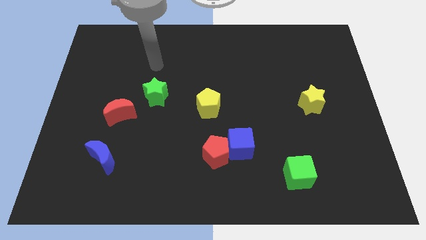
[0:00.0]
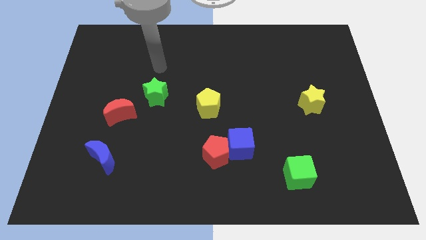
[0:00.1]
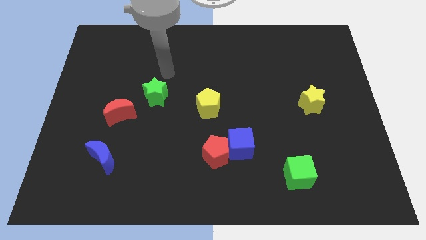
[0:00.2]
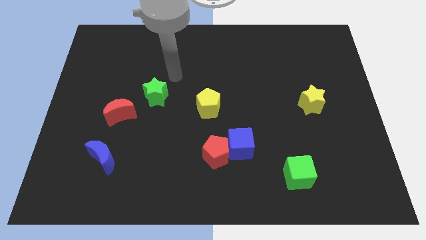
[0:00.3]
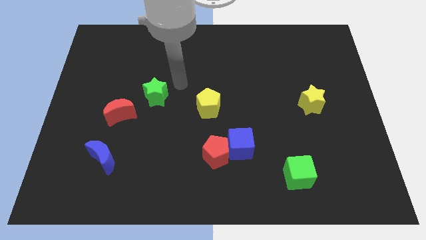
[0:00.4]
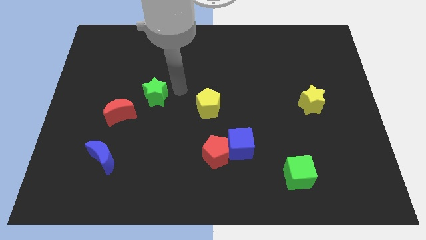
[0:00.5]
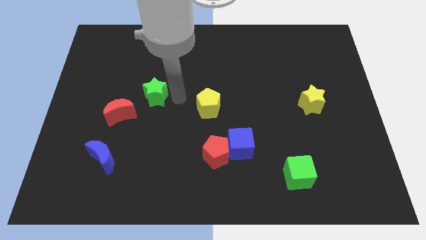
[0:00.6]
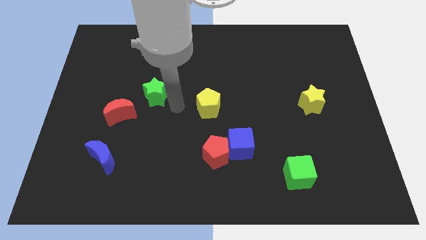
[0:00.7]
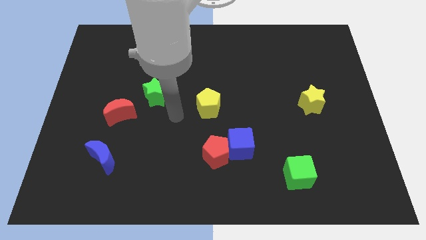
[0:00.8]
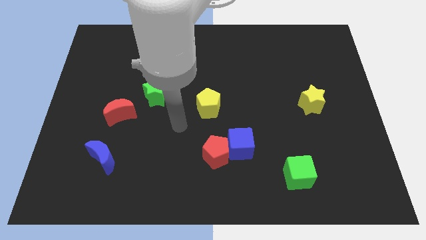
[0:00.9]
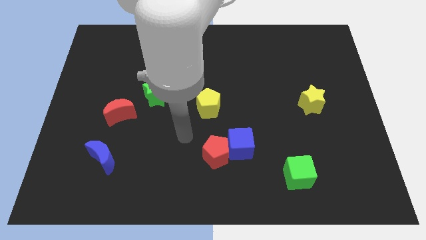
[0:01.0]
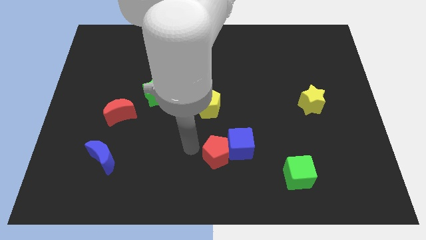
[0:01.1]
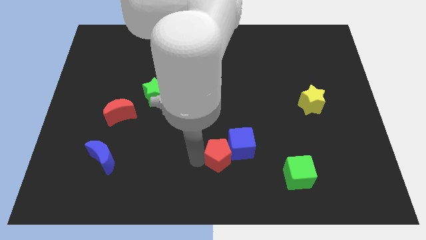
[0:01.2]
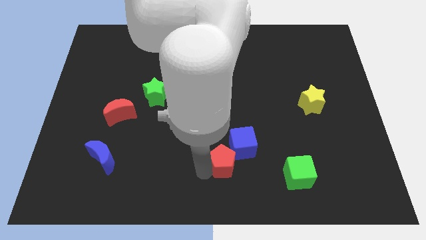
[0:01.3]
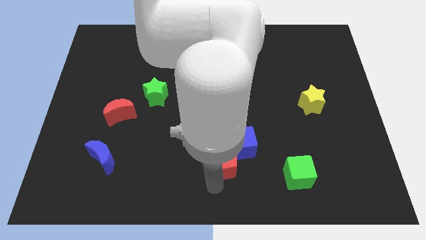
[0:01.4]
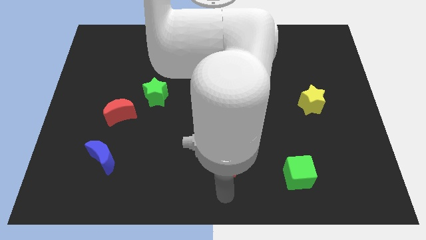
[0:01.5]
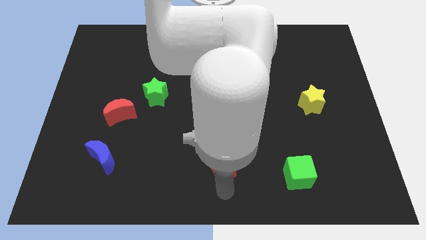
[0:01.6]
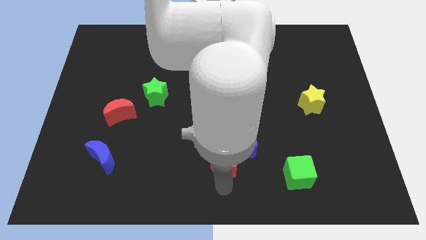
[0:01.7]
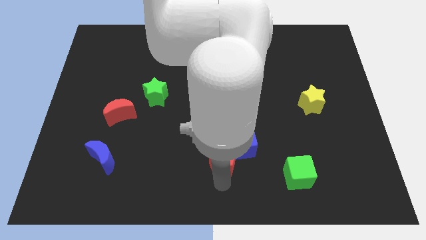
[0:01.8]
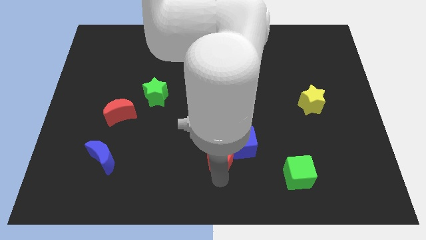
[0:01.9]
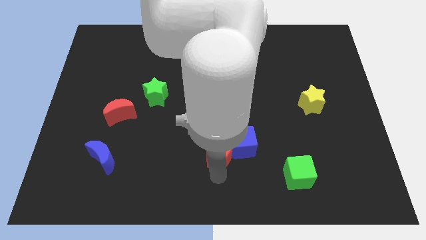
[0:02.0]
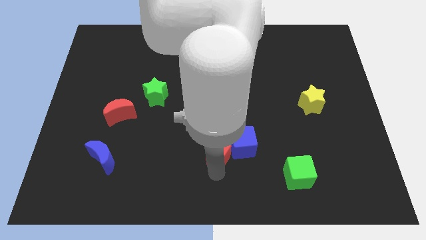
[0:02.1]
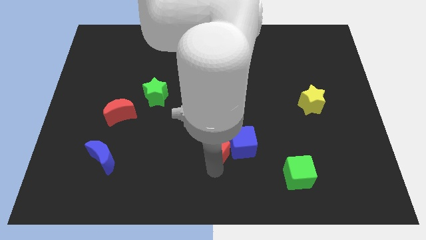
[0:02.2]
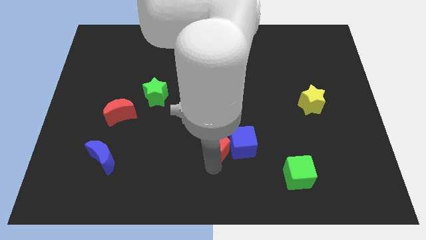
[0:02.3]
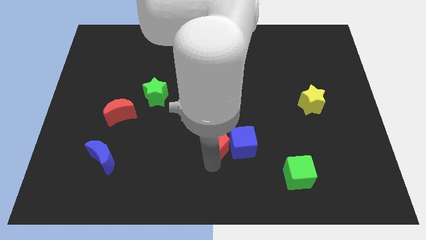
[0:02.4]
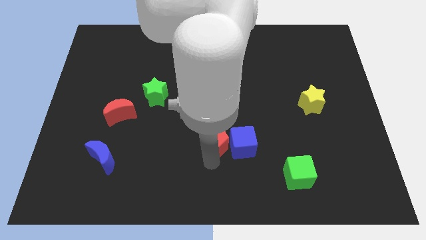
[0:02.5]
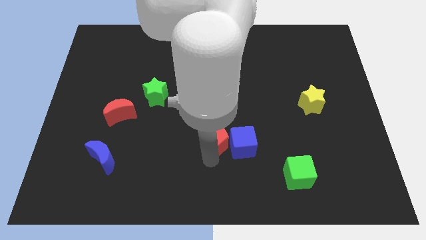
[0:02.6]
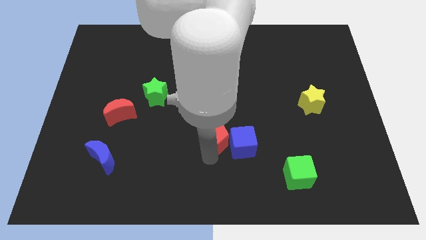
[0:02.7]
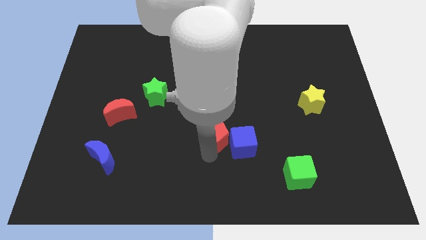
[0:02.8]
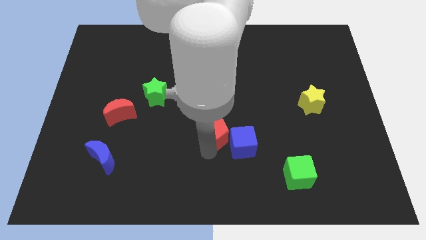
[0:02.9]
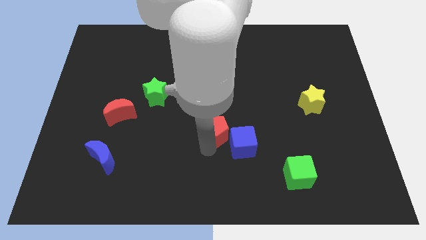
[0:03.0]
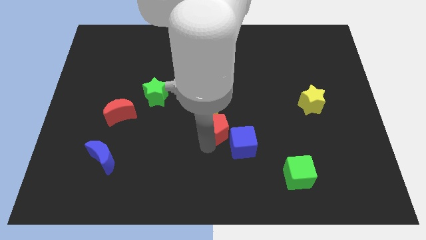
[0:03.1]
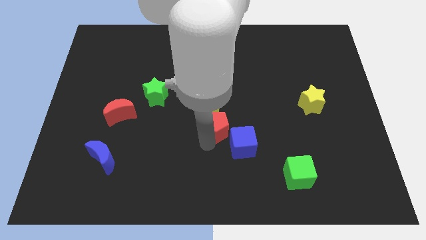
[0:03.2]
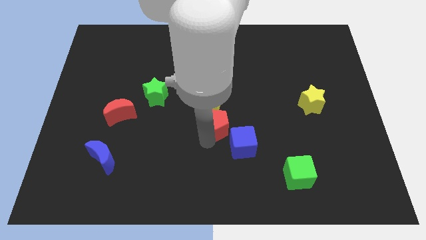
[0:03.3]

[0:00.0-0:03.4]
slightly slide the red pentagon upwards

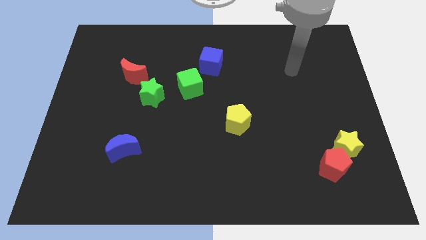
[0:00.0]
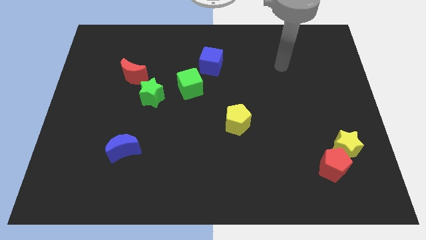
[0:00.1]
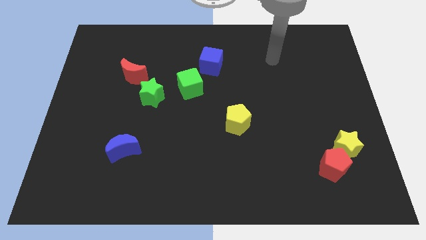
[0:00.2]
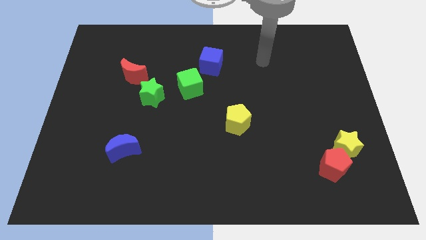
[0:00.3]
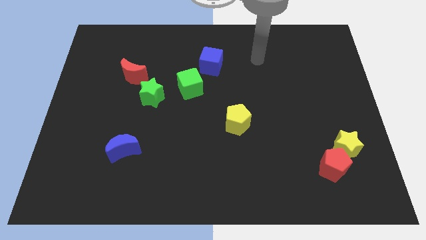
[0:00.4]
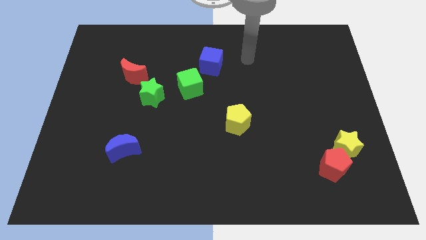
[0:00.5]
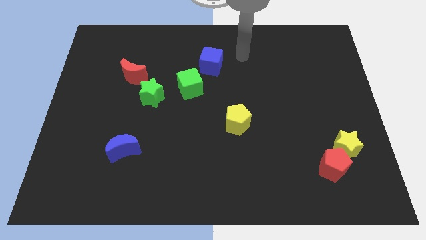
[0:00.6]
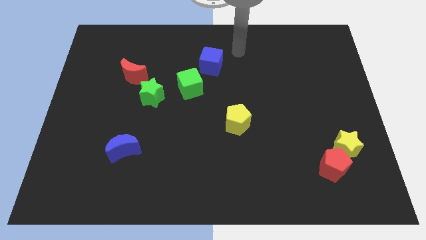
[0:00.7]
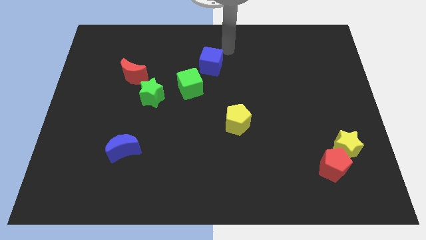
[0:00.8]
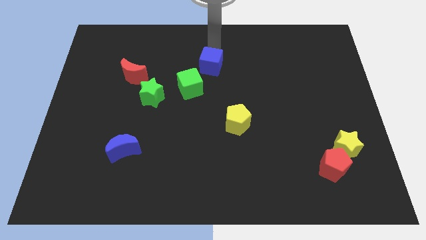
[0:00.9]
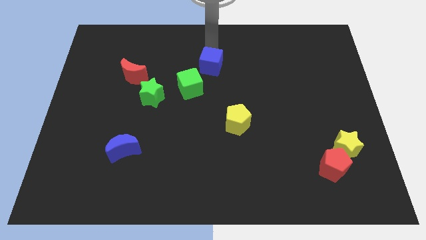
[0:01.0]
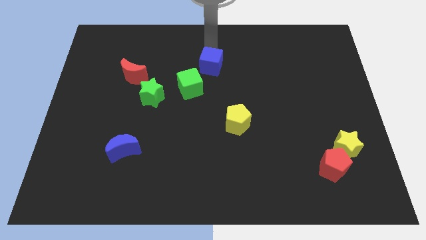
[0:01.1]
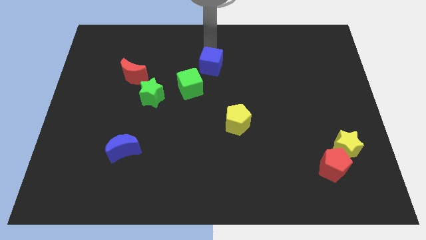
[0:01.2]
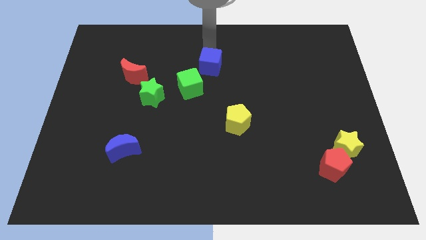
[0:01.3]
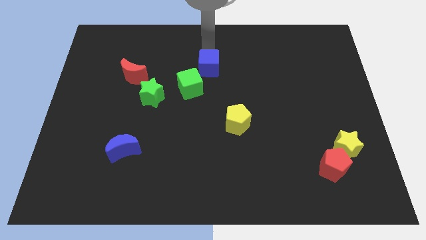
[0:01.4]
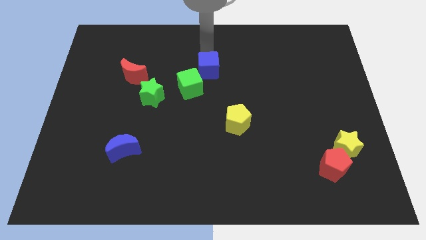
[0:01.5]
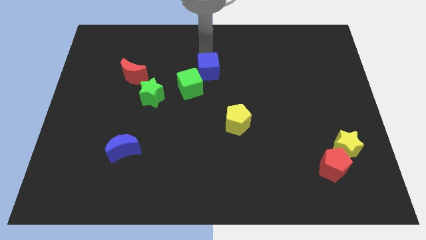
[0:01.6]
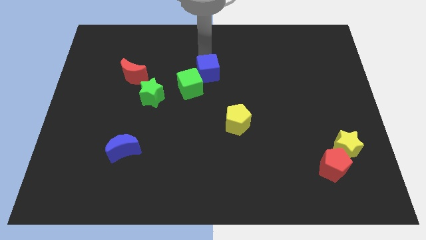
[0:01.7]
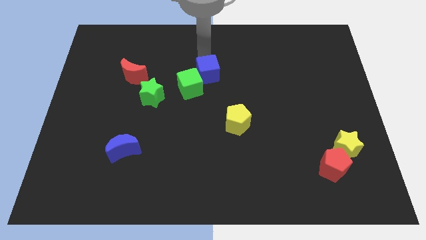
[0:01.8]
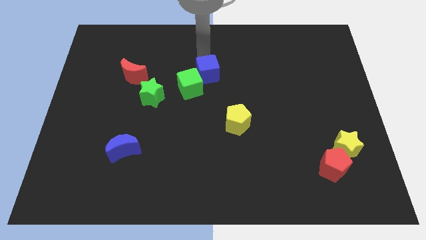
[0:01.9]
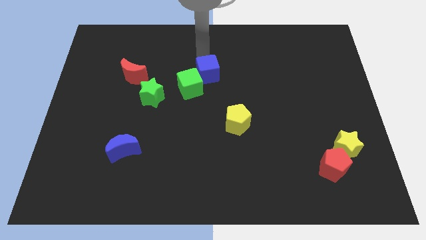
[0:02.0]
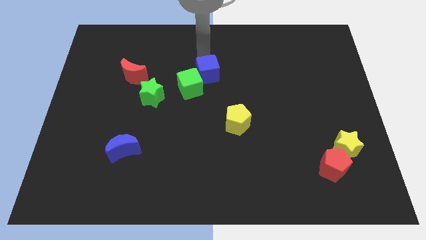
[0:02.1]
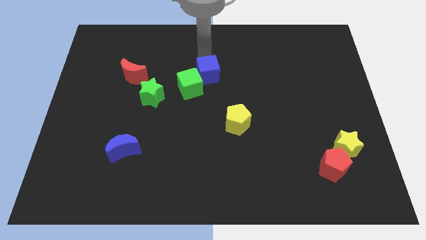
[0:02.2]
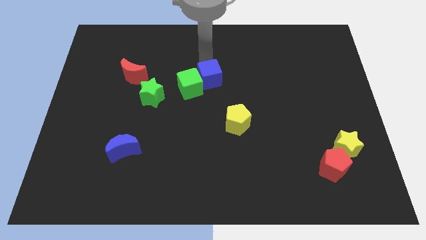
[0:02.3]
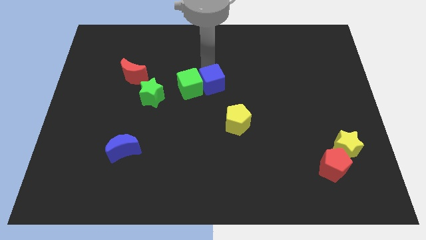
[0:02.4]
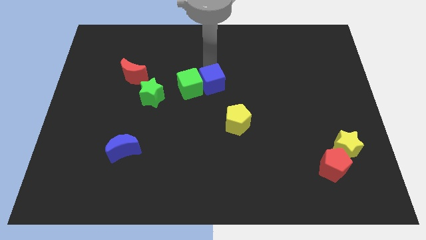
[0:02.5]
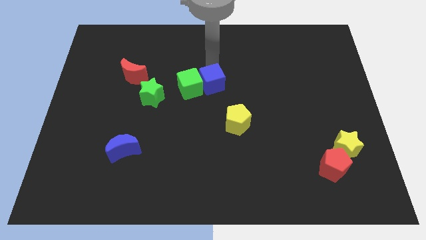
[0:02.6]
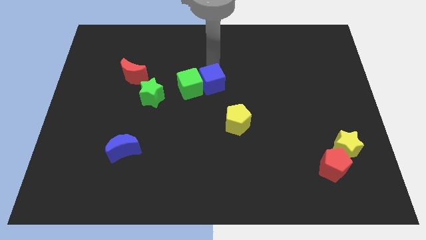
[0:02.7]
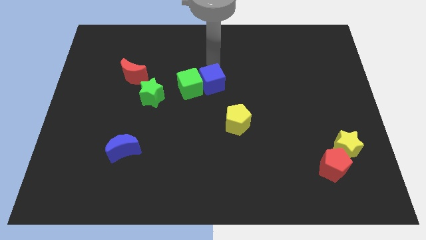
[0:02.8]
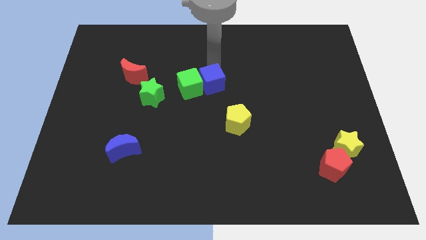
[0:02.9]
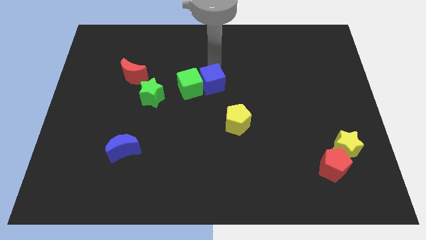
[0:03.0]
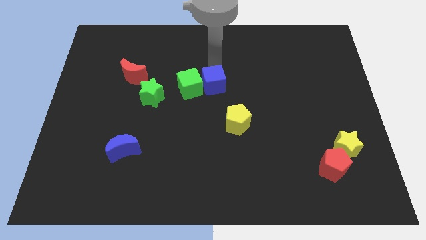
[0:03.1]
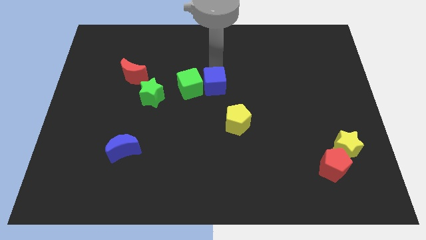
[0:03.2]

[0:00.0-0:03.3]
move the blue cube down slightly

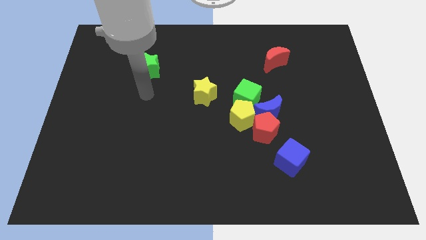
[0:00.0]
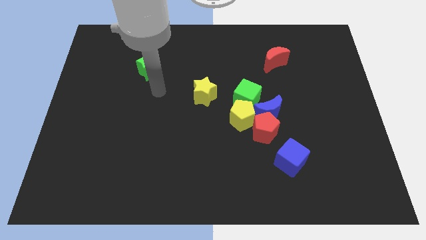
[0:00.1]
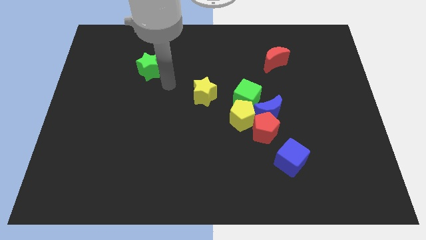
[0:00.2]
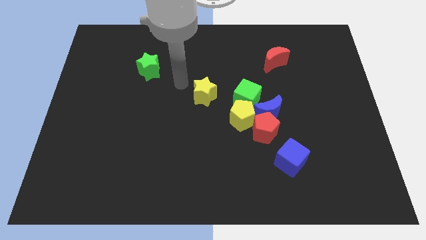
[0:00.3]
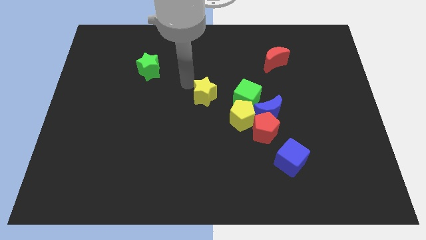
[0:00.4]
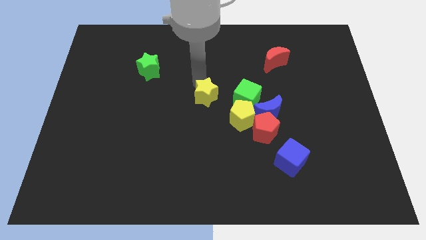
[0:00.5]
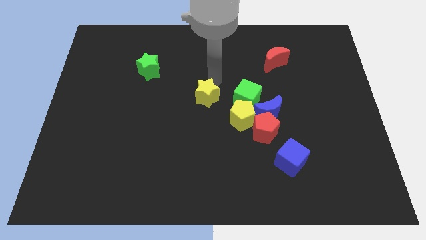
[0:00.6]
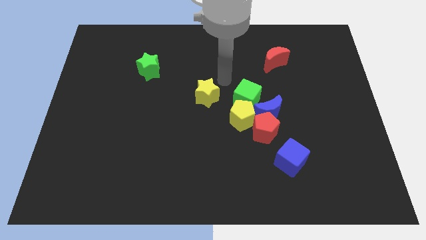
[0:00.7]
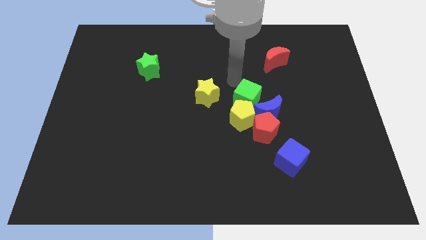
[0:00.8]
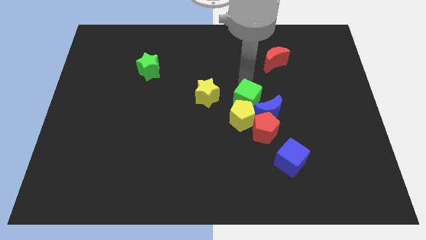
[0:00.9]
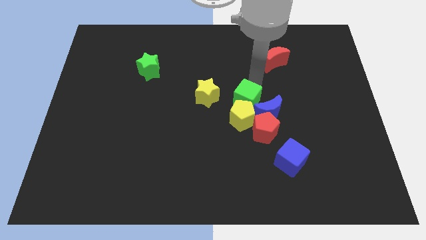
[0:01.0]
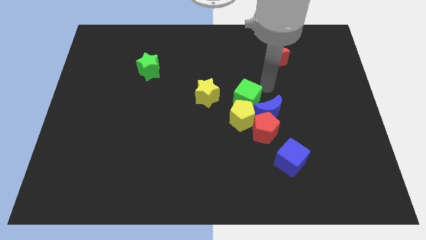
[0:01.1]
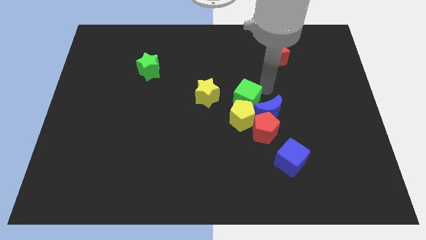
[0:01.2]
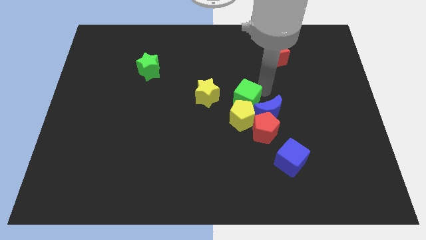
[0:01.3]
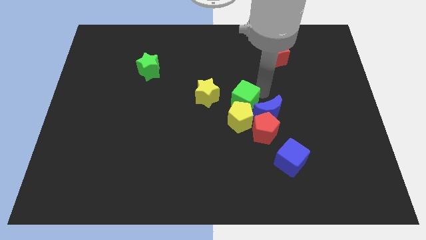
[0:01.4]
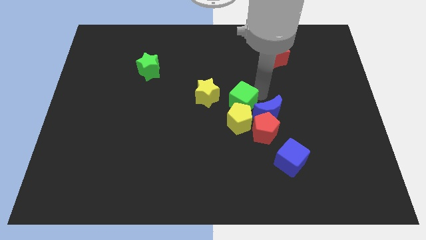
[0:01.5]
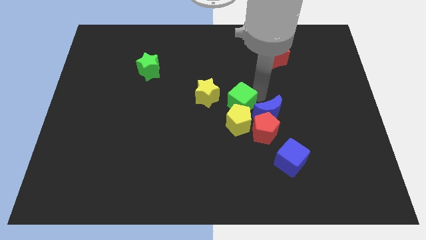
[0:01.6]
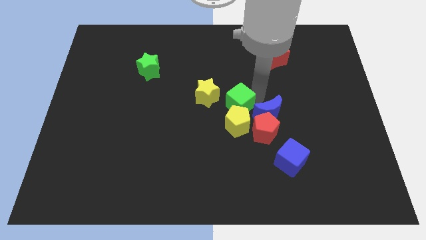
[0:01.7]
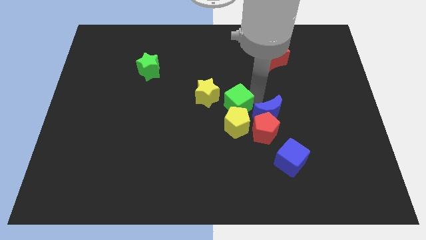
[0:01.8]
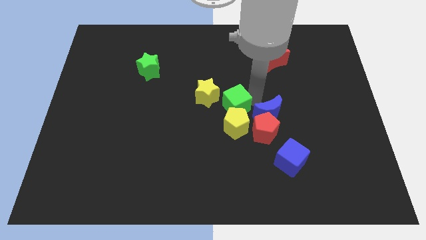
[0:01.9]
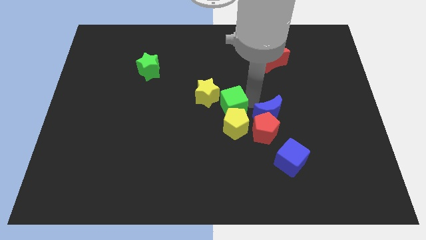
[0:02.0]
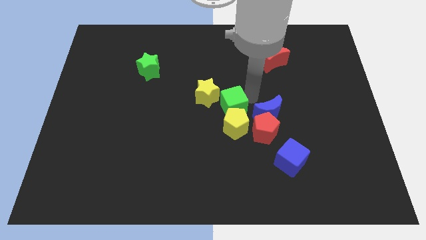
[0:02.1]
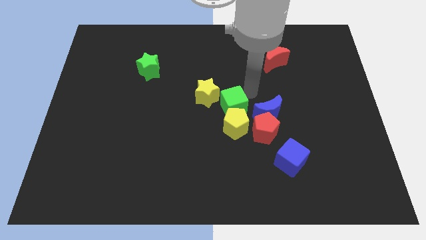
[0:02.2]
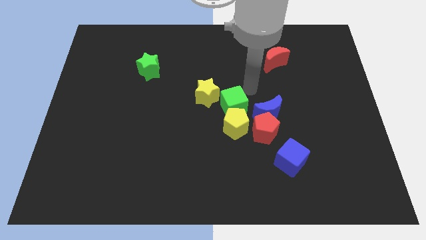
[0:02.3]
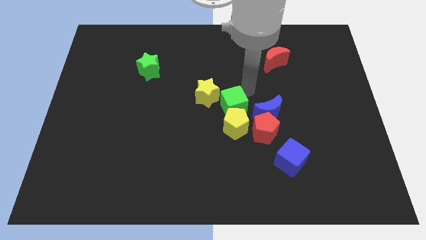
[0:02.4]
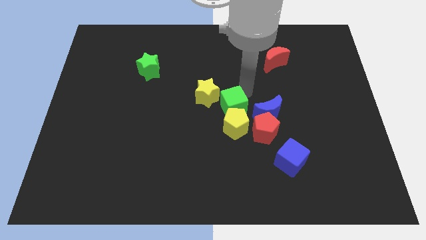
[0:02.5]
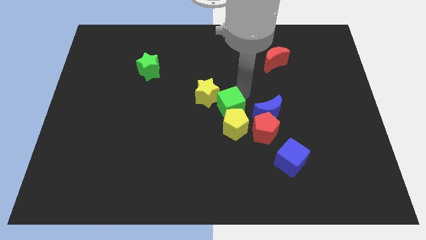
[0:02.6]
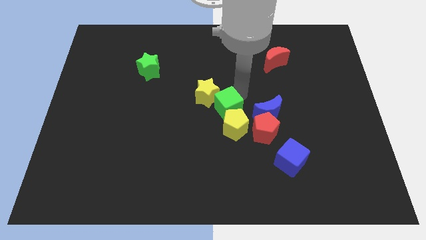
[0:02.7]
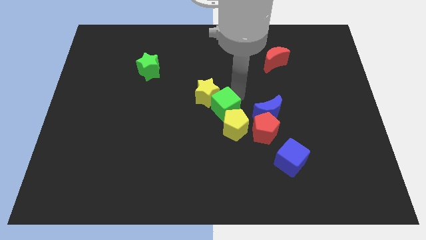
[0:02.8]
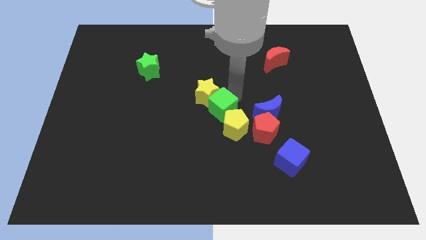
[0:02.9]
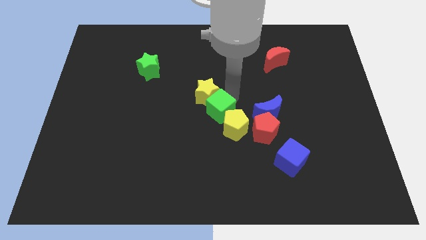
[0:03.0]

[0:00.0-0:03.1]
slightly move the green cube downwards and left
